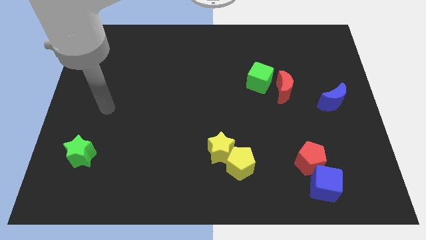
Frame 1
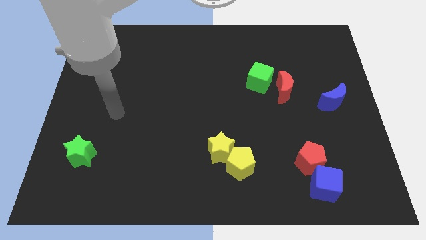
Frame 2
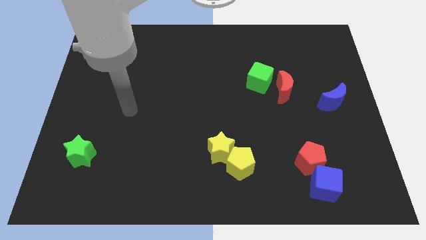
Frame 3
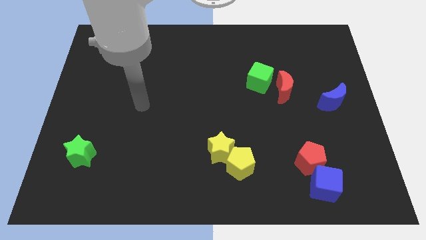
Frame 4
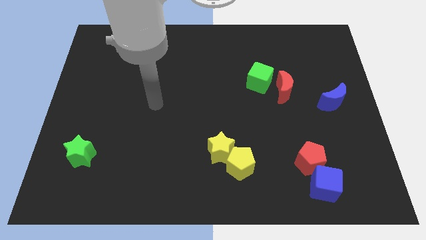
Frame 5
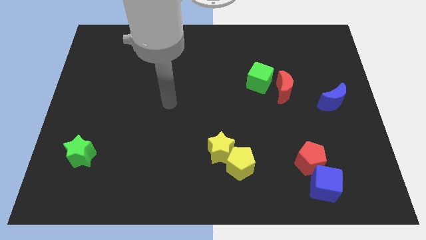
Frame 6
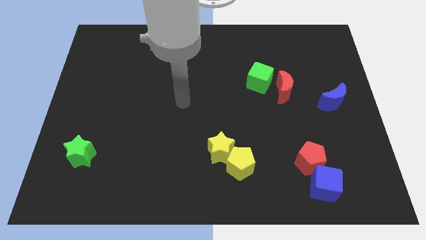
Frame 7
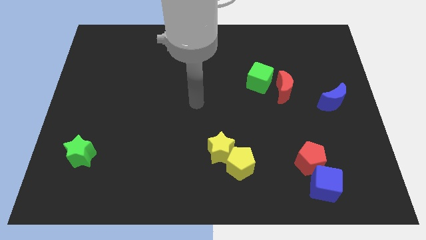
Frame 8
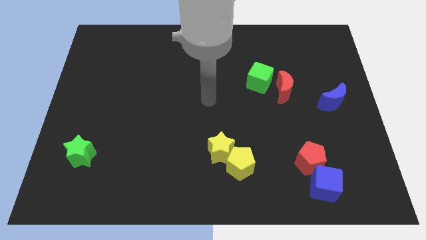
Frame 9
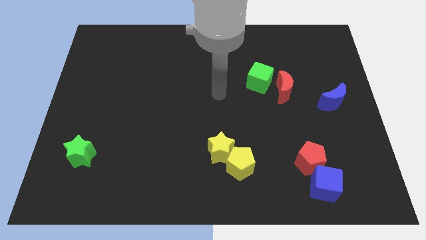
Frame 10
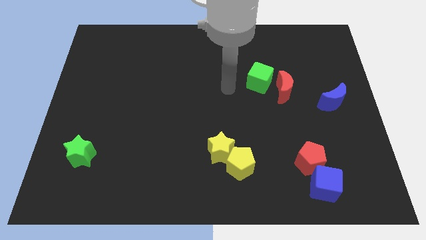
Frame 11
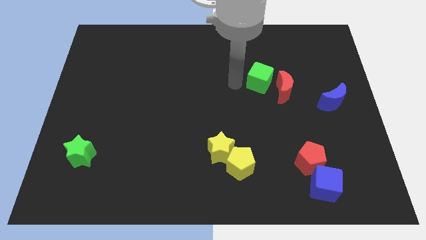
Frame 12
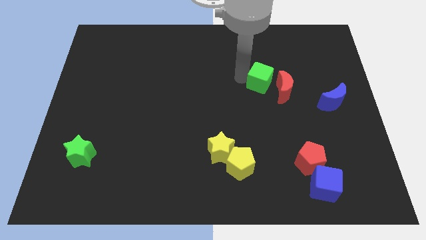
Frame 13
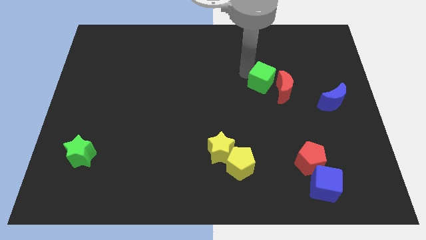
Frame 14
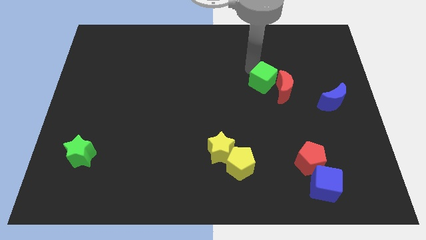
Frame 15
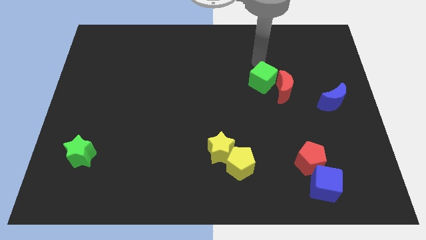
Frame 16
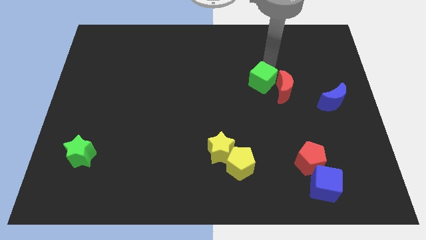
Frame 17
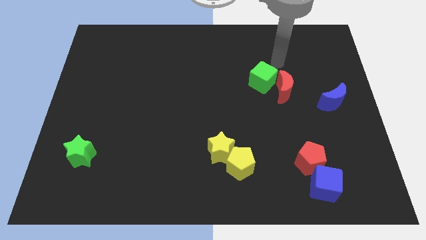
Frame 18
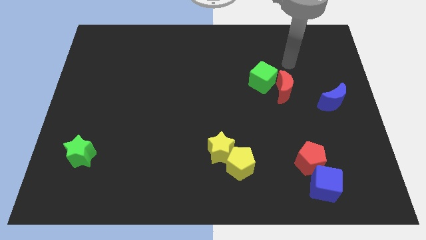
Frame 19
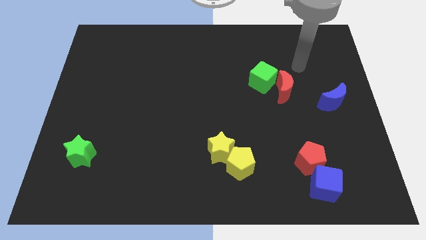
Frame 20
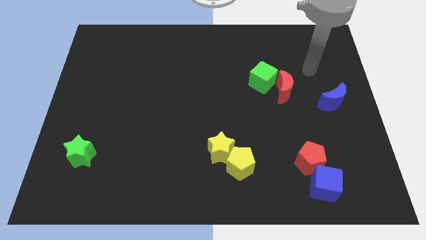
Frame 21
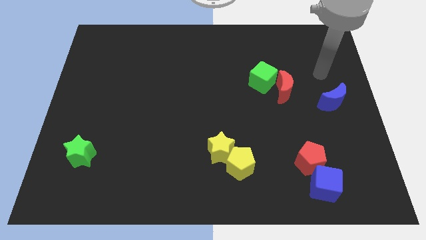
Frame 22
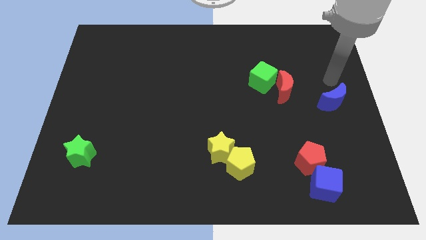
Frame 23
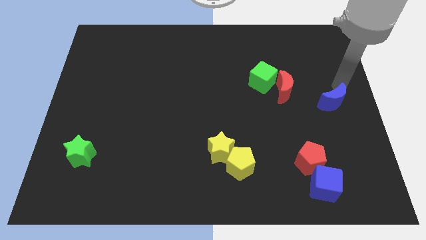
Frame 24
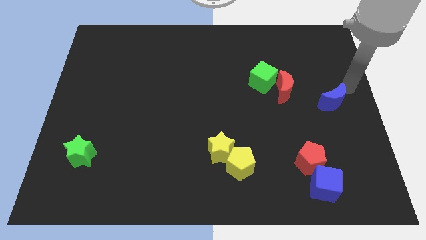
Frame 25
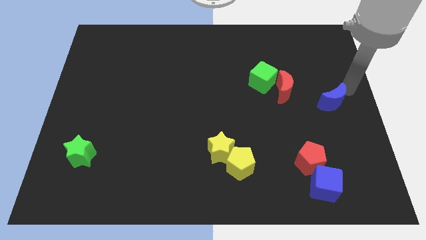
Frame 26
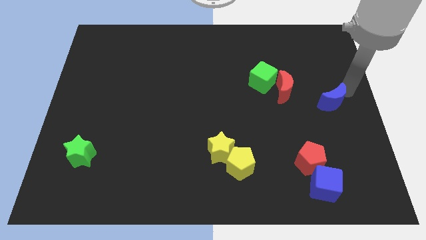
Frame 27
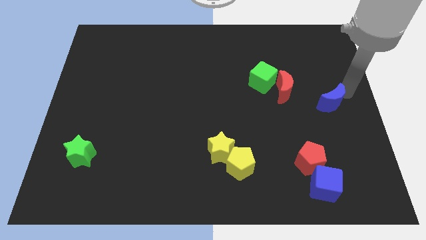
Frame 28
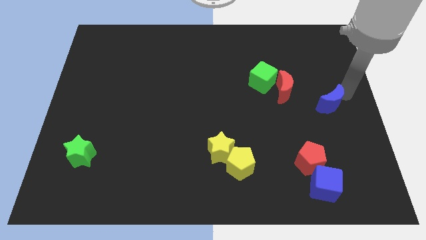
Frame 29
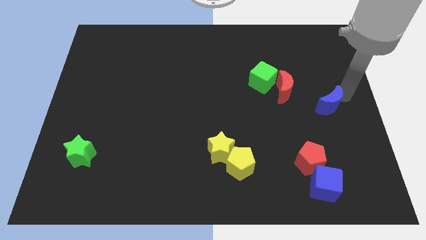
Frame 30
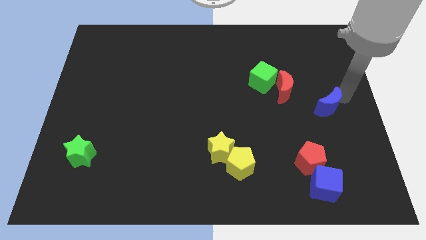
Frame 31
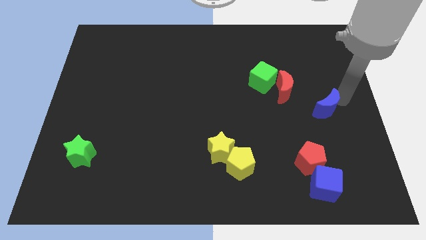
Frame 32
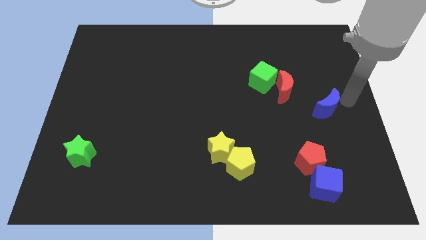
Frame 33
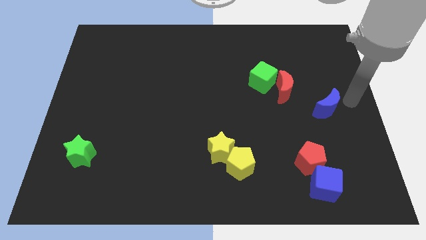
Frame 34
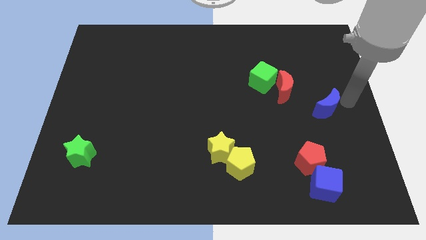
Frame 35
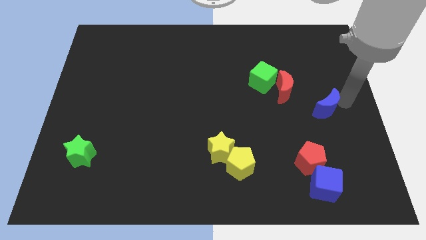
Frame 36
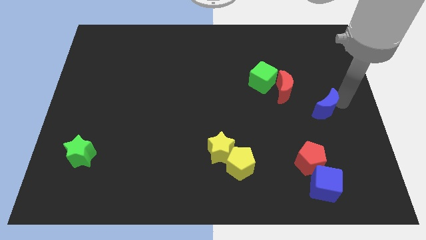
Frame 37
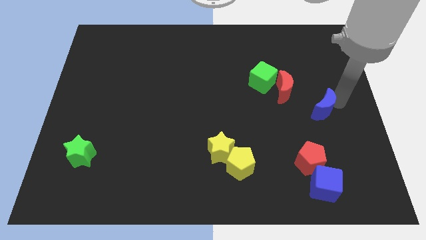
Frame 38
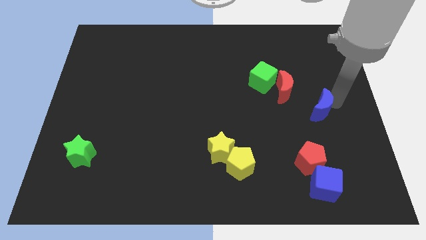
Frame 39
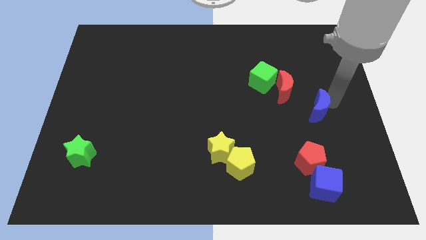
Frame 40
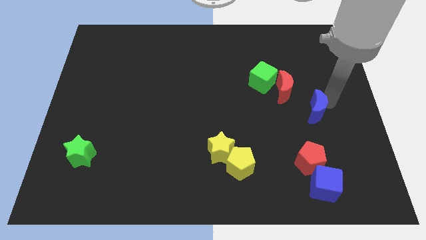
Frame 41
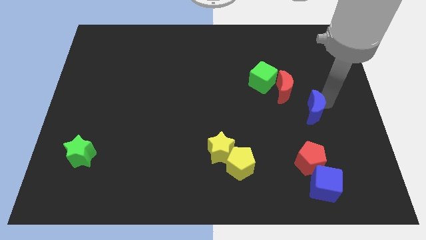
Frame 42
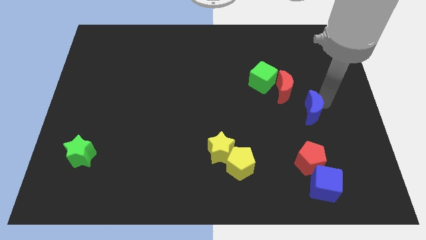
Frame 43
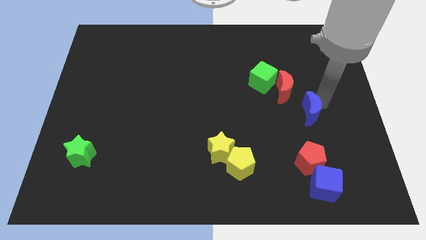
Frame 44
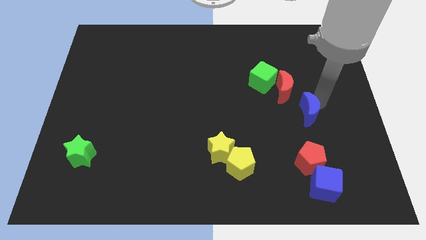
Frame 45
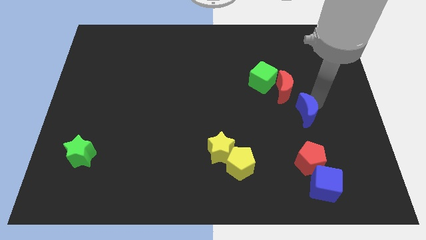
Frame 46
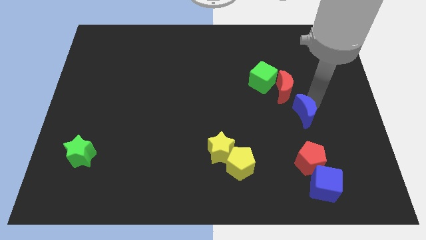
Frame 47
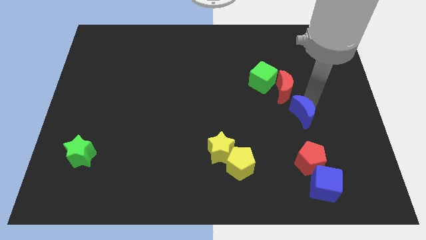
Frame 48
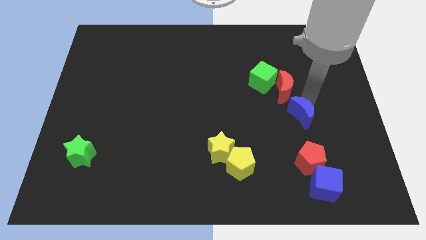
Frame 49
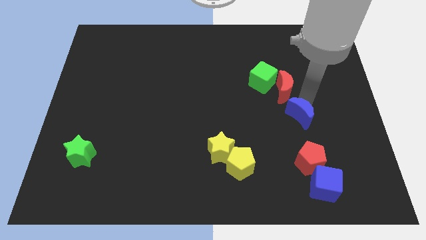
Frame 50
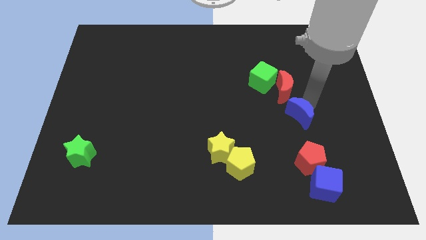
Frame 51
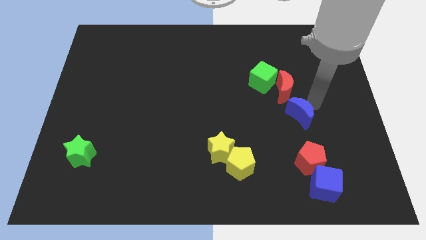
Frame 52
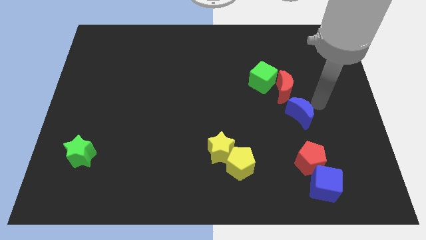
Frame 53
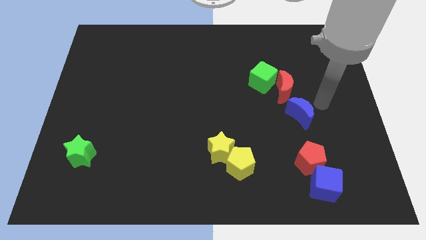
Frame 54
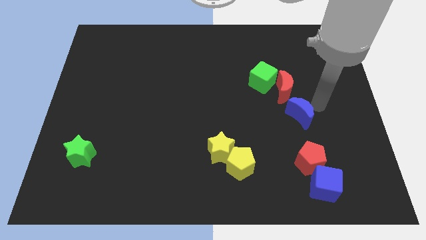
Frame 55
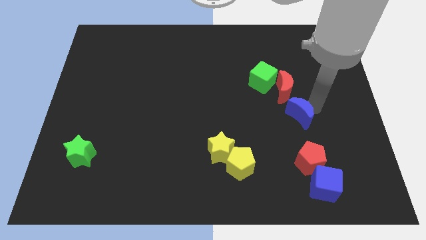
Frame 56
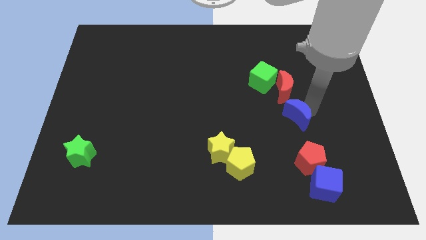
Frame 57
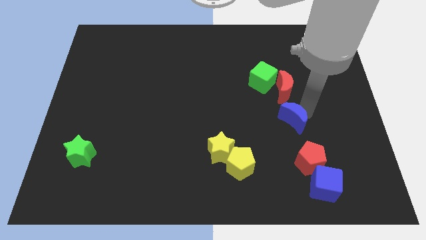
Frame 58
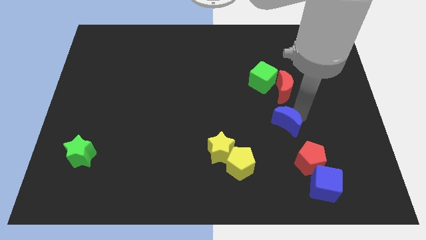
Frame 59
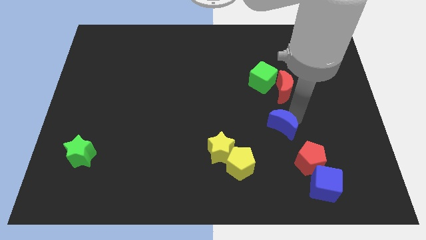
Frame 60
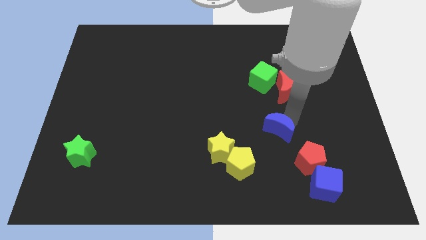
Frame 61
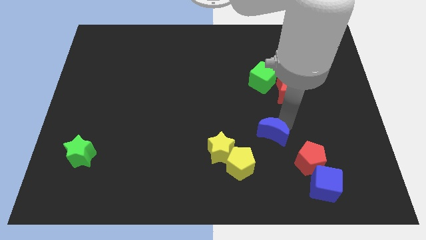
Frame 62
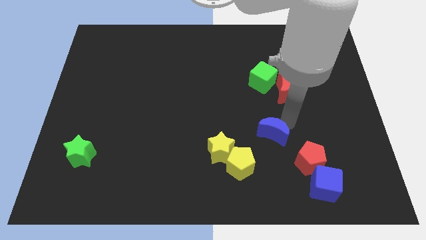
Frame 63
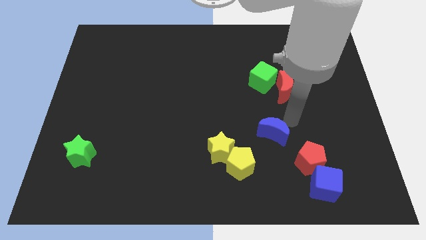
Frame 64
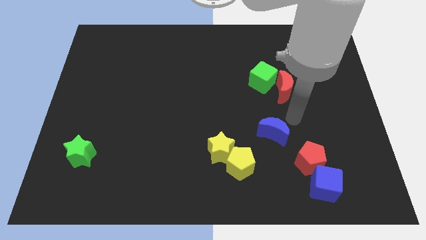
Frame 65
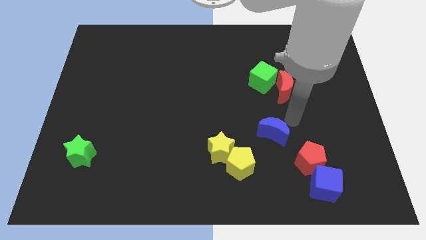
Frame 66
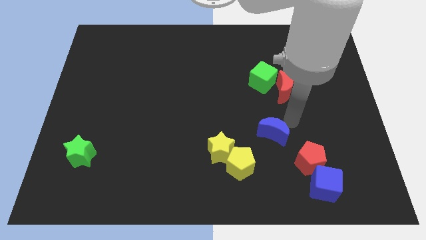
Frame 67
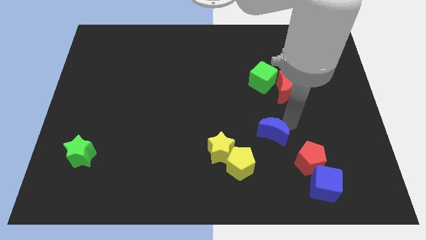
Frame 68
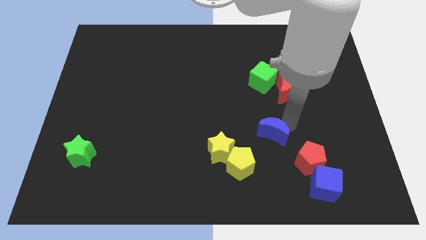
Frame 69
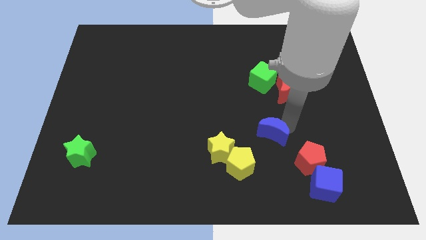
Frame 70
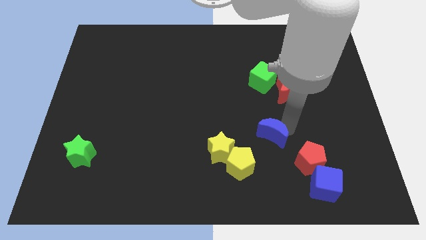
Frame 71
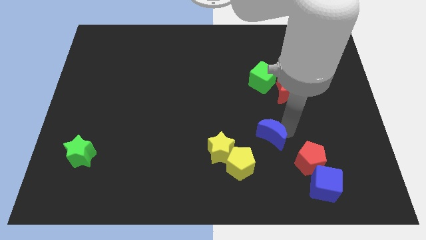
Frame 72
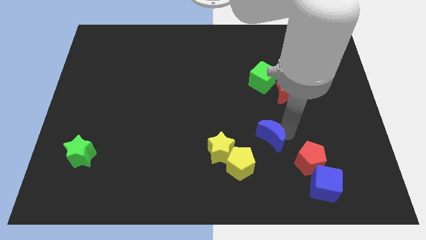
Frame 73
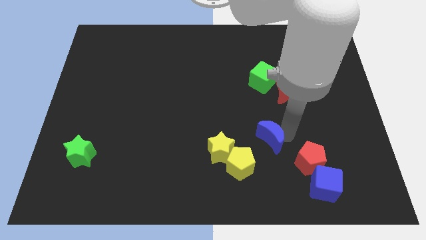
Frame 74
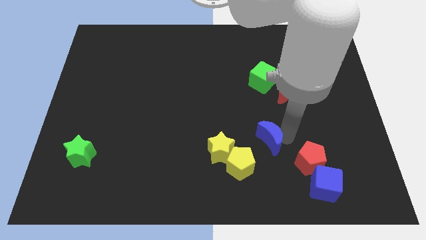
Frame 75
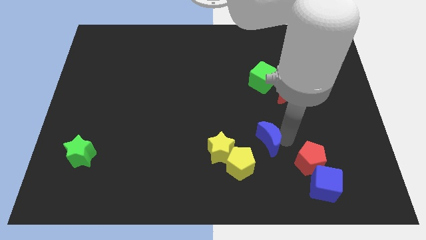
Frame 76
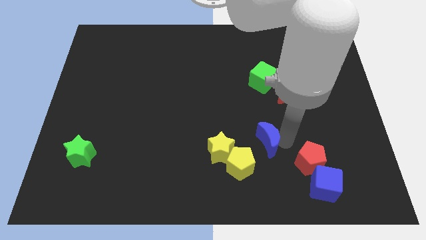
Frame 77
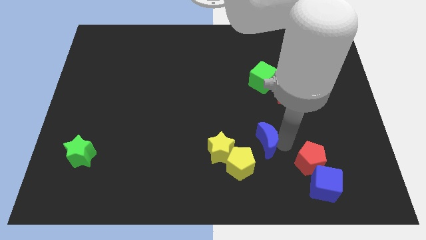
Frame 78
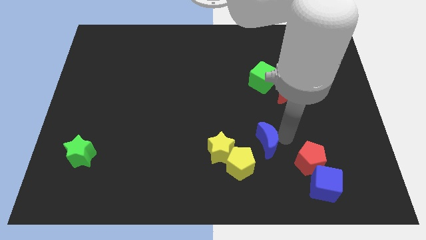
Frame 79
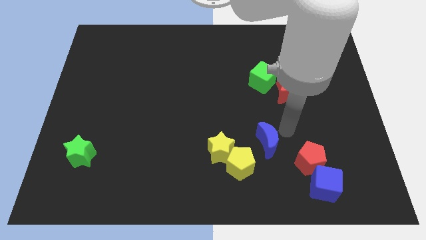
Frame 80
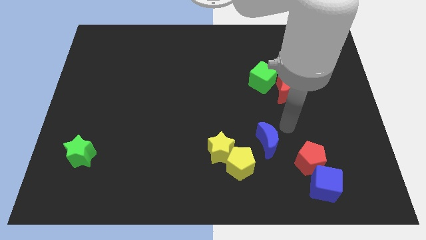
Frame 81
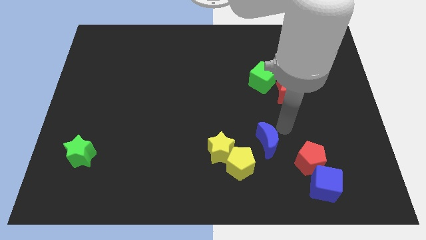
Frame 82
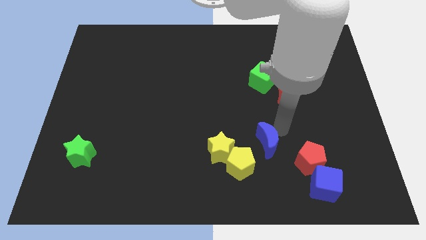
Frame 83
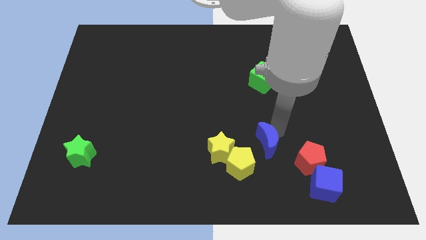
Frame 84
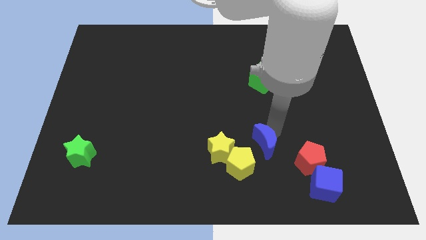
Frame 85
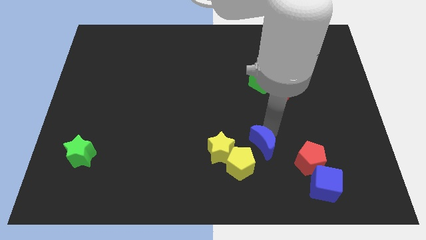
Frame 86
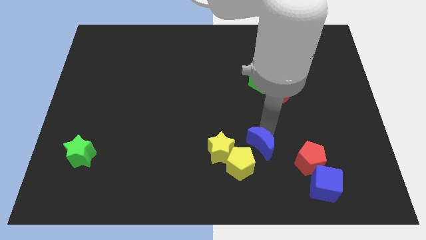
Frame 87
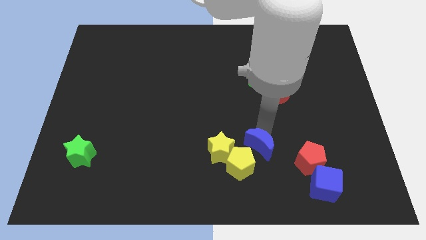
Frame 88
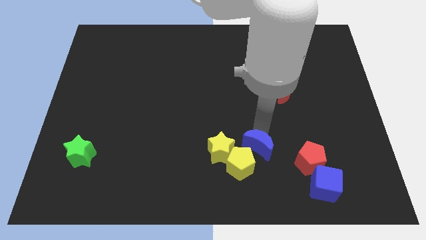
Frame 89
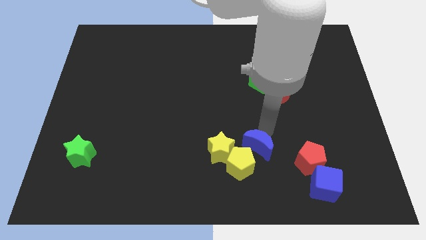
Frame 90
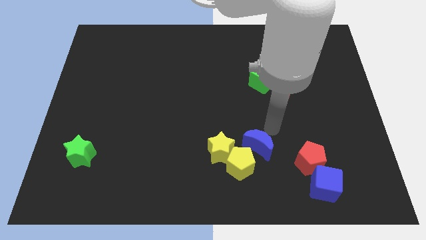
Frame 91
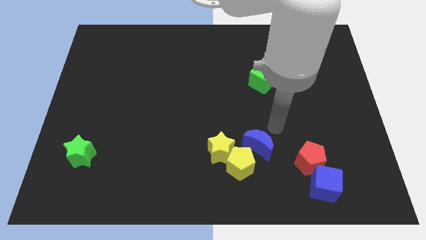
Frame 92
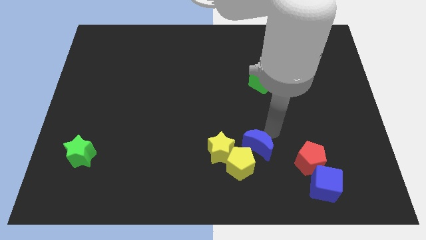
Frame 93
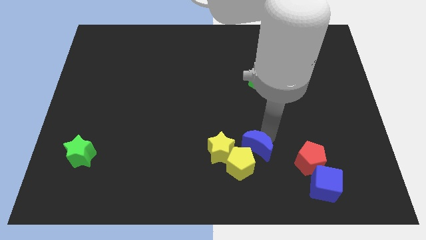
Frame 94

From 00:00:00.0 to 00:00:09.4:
push the blue moon to the yellow pentagon
